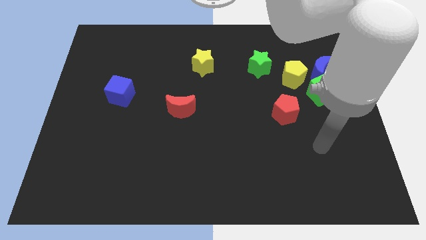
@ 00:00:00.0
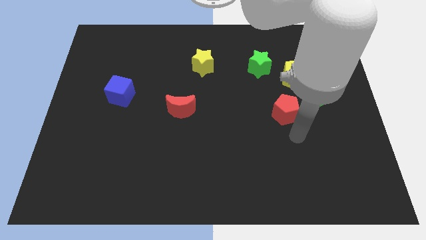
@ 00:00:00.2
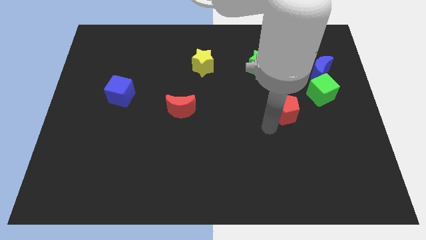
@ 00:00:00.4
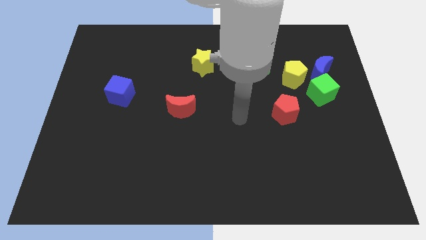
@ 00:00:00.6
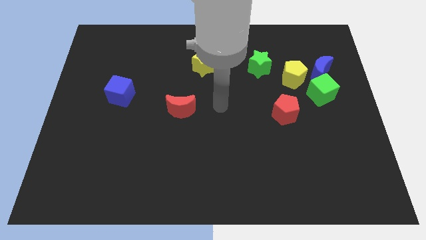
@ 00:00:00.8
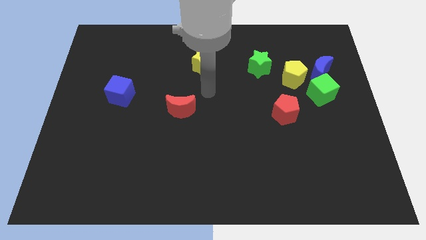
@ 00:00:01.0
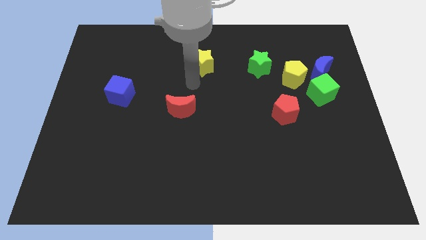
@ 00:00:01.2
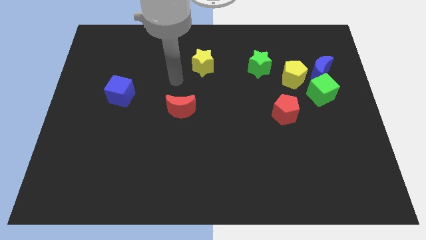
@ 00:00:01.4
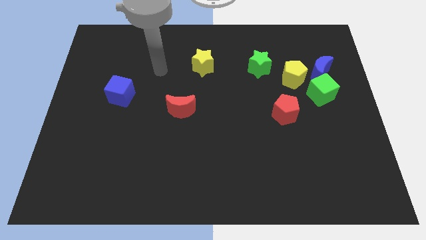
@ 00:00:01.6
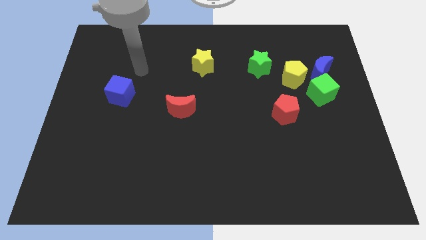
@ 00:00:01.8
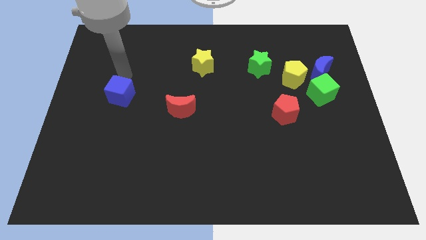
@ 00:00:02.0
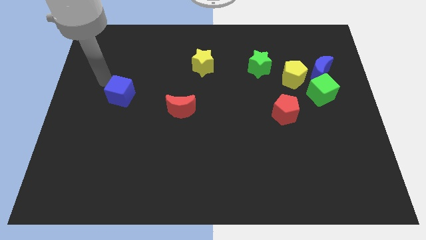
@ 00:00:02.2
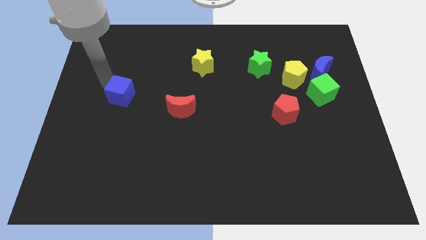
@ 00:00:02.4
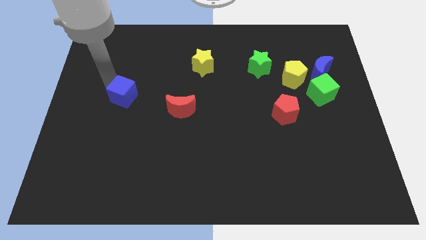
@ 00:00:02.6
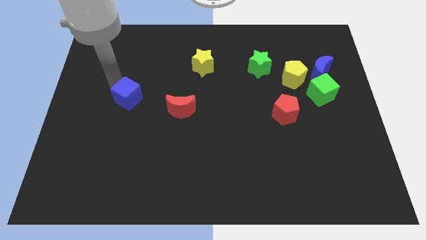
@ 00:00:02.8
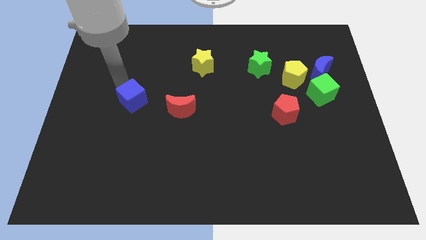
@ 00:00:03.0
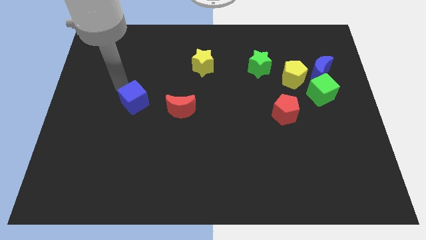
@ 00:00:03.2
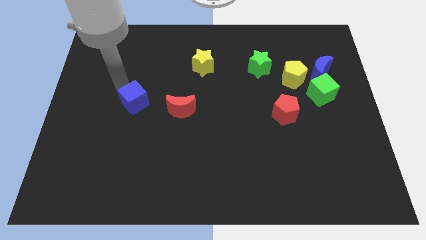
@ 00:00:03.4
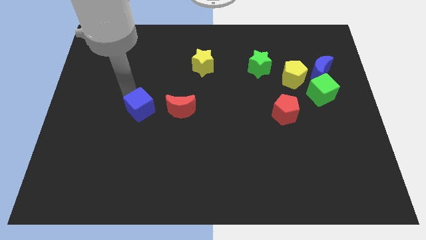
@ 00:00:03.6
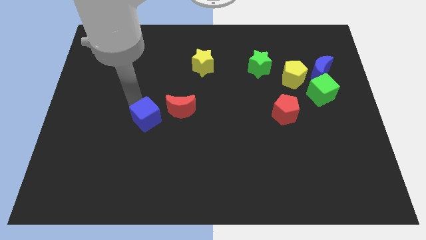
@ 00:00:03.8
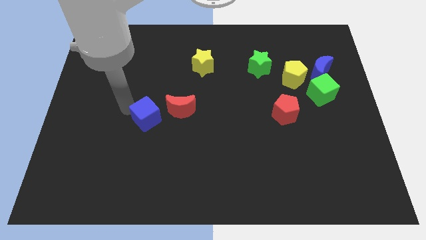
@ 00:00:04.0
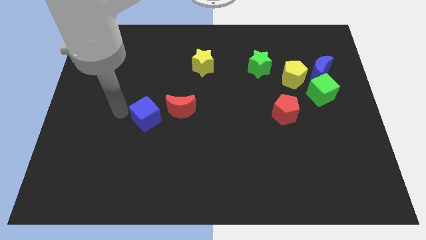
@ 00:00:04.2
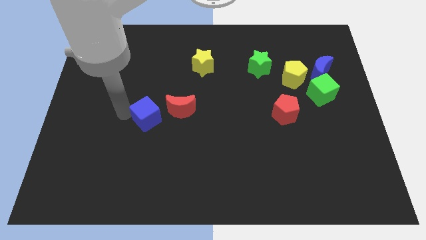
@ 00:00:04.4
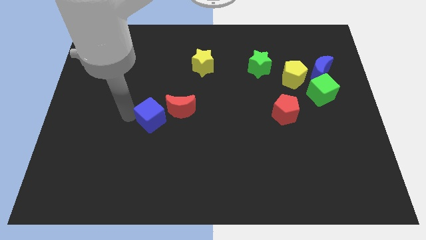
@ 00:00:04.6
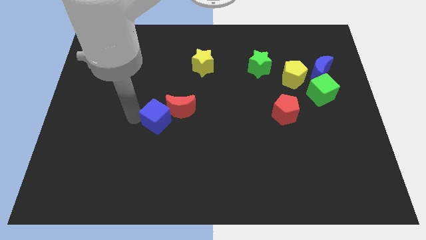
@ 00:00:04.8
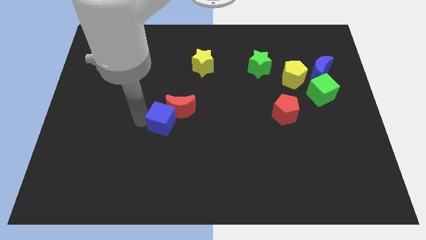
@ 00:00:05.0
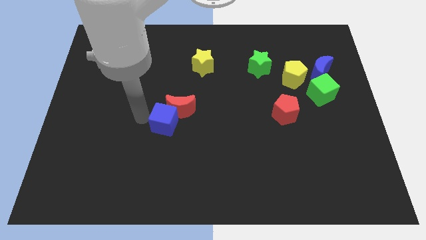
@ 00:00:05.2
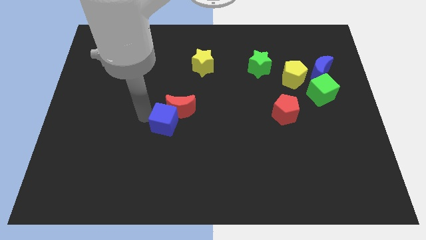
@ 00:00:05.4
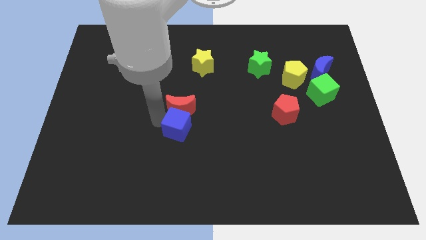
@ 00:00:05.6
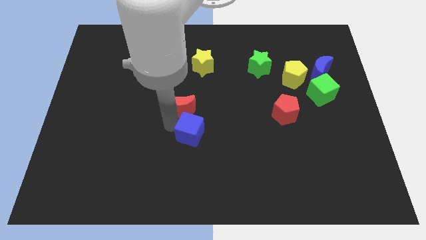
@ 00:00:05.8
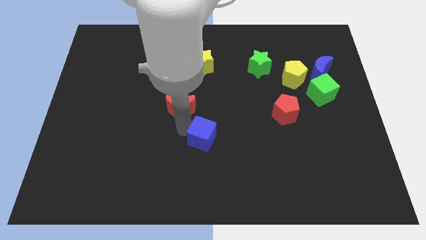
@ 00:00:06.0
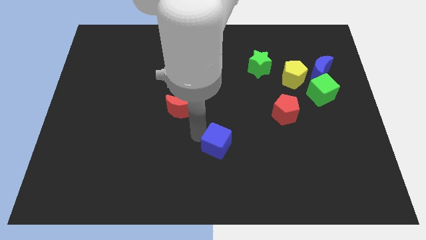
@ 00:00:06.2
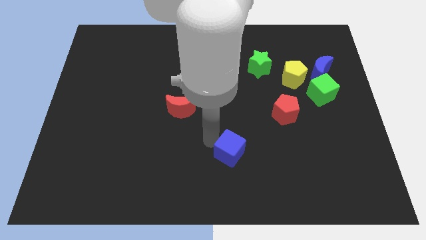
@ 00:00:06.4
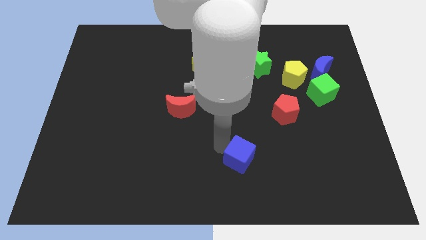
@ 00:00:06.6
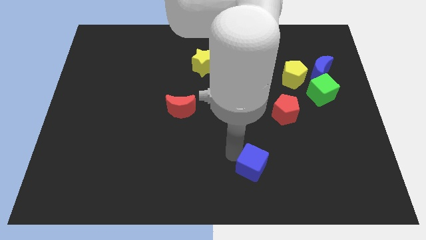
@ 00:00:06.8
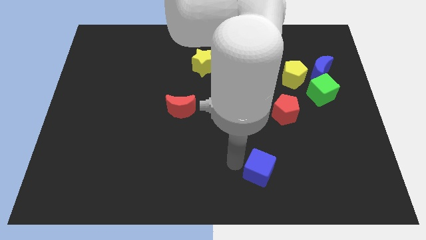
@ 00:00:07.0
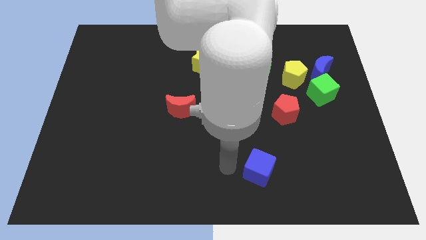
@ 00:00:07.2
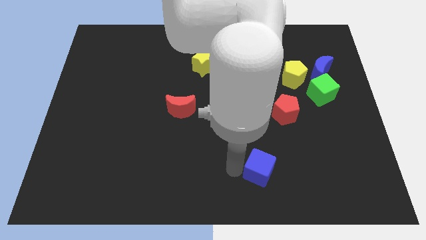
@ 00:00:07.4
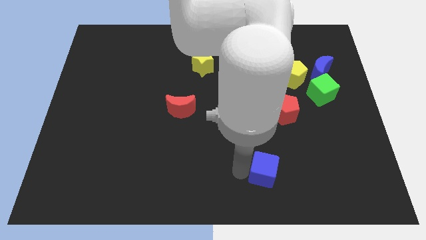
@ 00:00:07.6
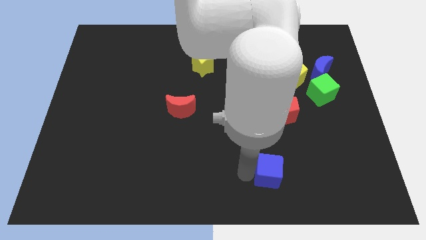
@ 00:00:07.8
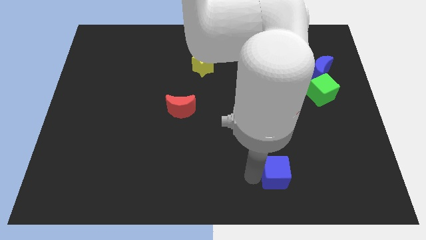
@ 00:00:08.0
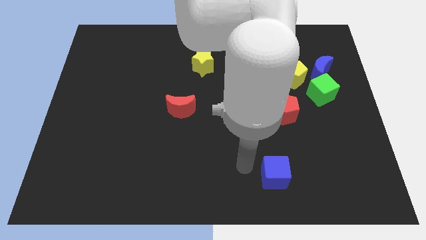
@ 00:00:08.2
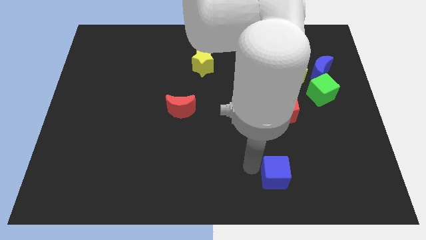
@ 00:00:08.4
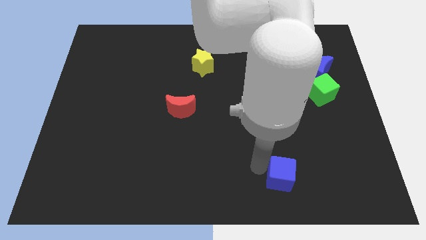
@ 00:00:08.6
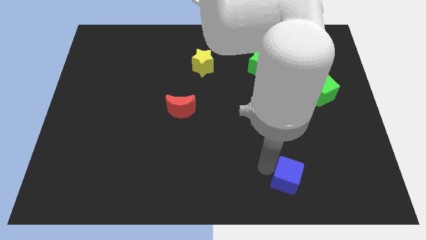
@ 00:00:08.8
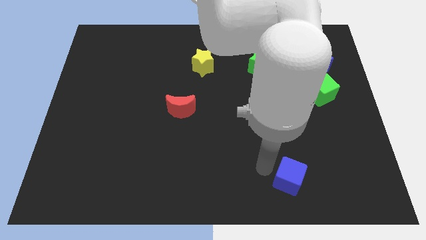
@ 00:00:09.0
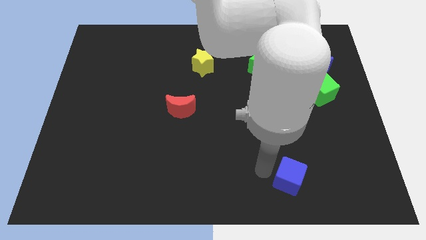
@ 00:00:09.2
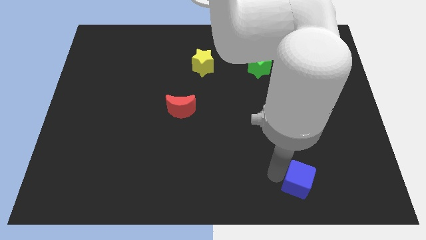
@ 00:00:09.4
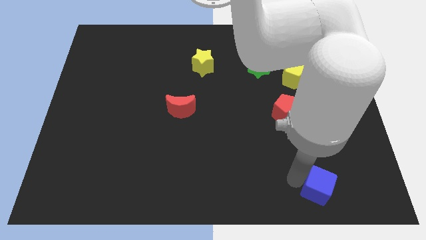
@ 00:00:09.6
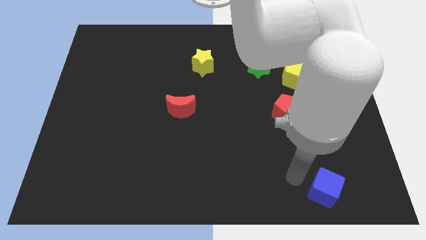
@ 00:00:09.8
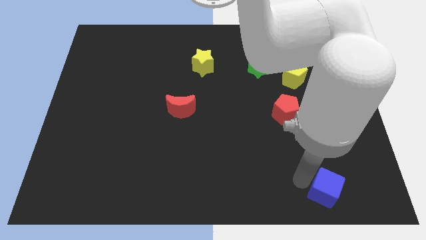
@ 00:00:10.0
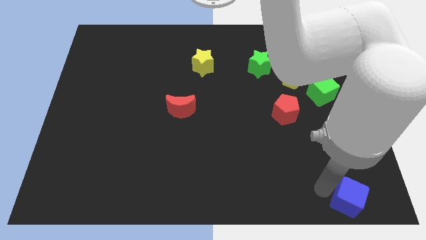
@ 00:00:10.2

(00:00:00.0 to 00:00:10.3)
move the blue cube to the bottom right corner

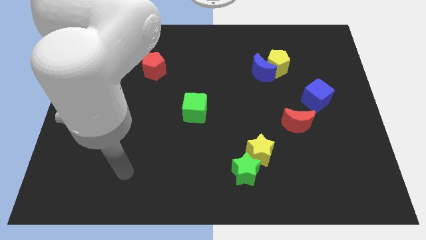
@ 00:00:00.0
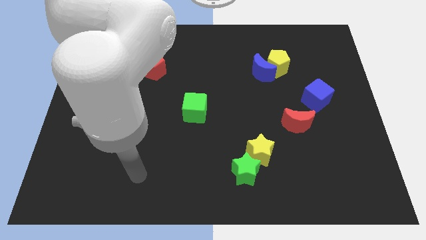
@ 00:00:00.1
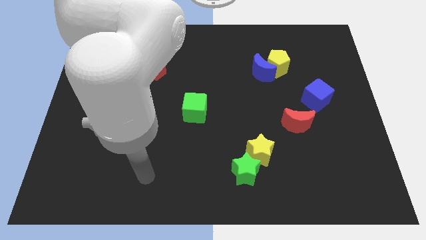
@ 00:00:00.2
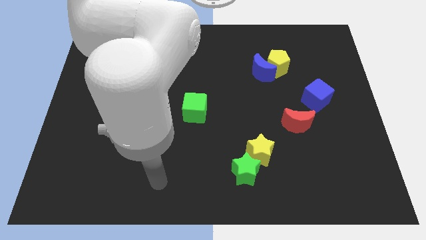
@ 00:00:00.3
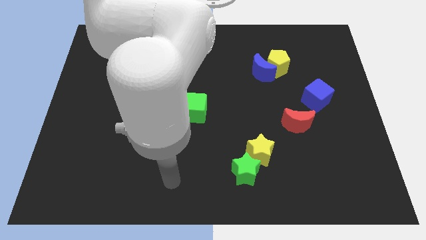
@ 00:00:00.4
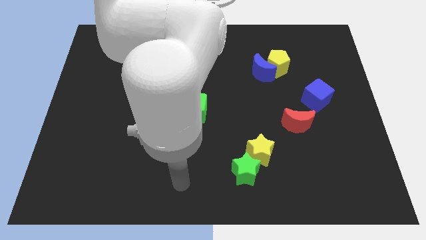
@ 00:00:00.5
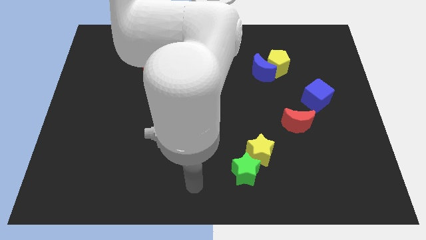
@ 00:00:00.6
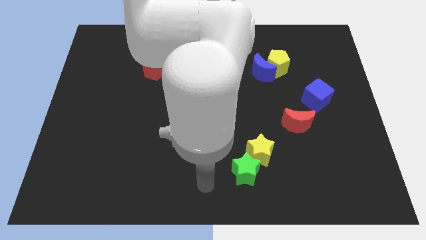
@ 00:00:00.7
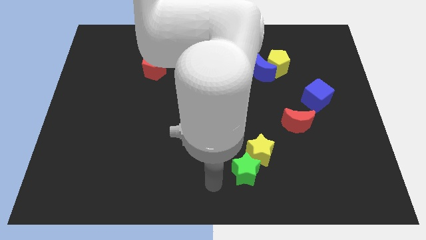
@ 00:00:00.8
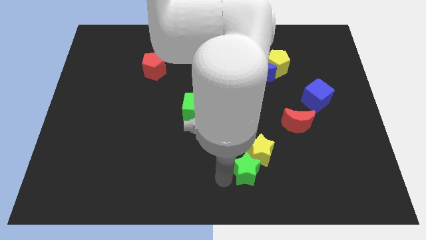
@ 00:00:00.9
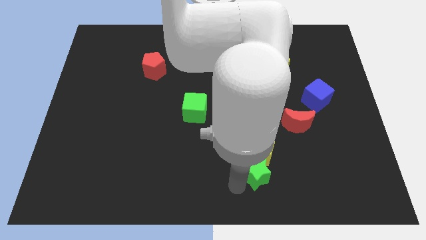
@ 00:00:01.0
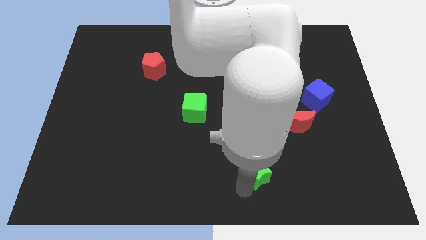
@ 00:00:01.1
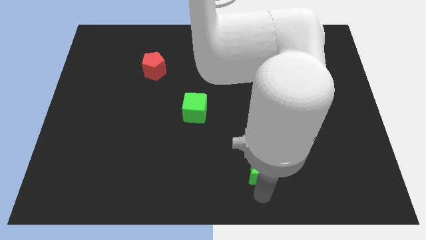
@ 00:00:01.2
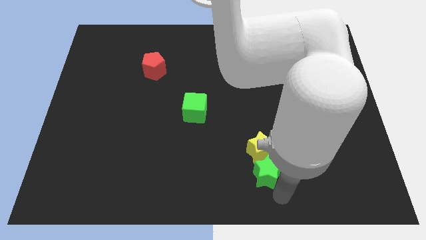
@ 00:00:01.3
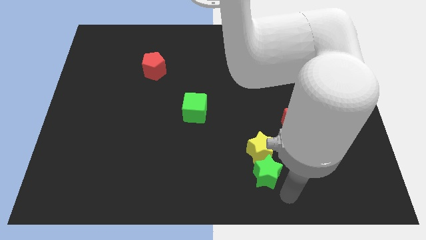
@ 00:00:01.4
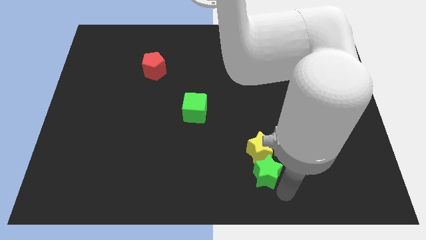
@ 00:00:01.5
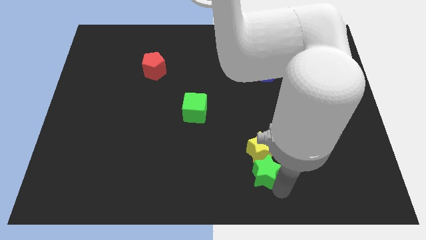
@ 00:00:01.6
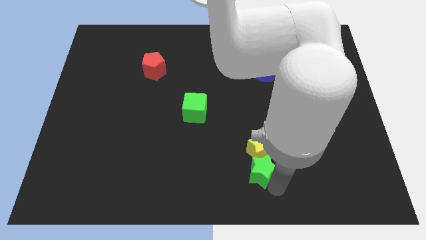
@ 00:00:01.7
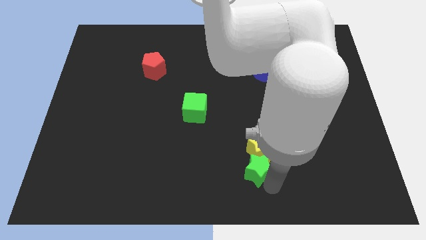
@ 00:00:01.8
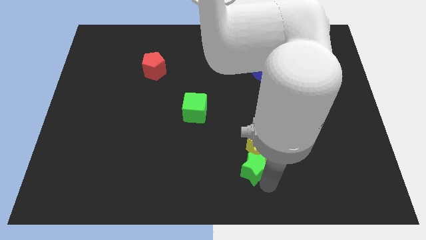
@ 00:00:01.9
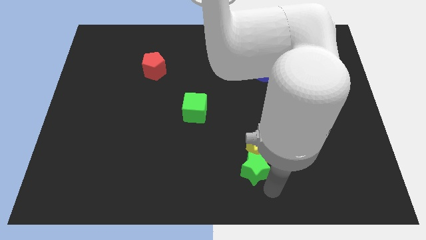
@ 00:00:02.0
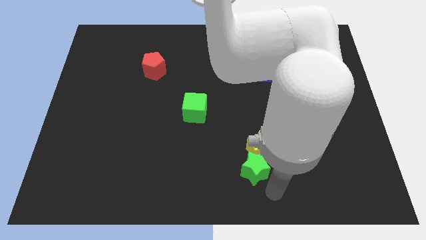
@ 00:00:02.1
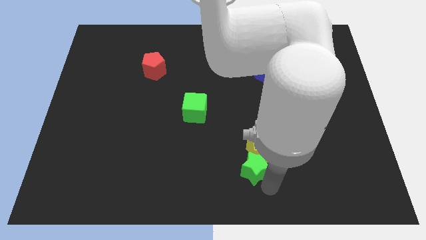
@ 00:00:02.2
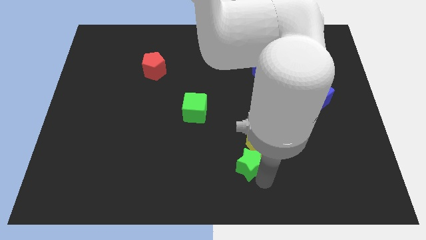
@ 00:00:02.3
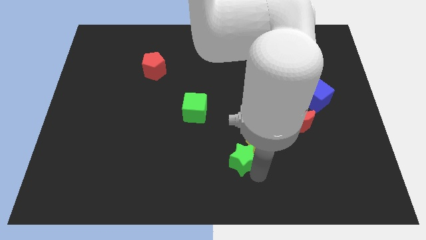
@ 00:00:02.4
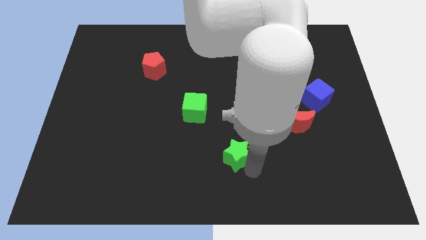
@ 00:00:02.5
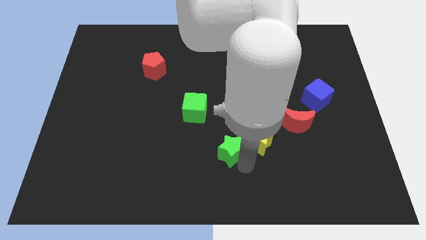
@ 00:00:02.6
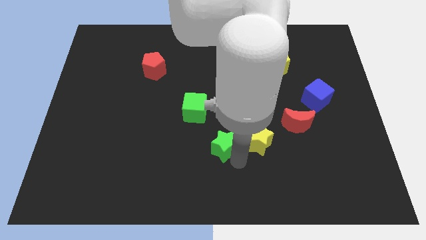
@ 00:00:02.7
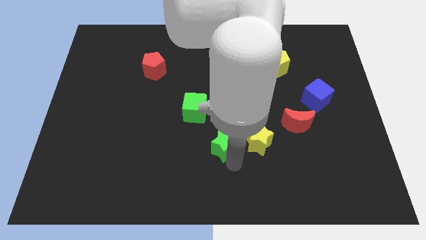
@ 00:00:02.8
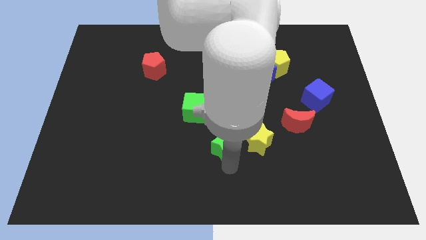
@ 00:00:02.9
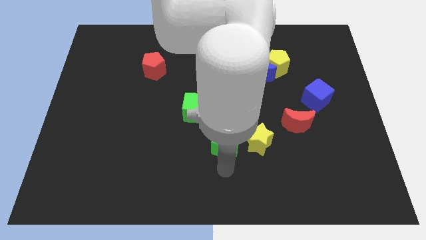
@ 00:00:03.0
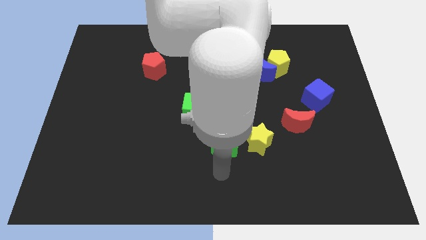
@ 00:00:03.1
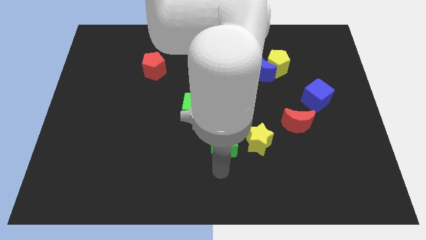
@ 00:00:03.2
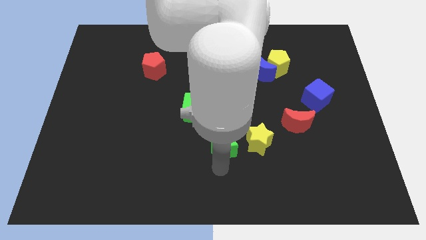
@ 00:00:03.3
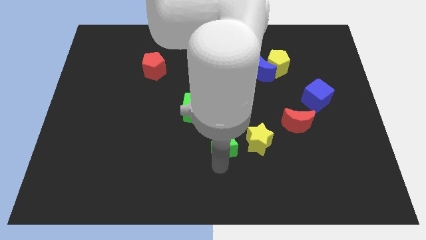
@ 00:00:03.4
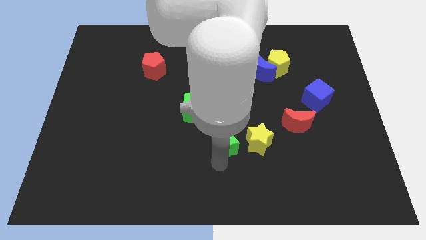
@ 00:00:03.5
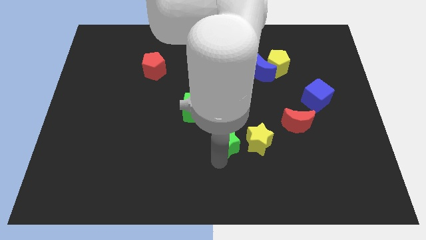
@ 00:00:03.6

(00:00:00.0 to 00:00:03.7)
slide the green star to the center
